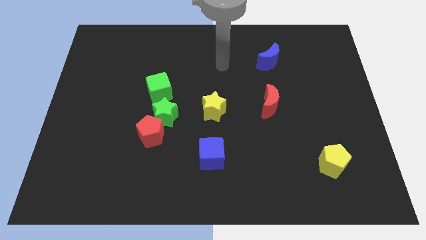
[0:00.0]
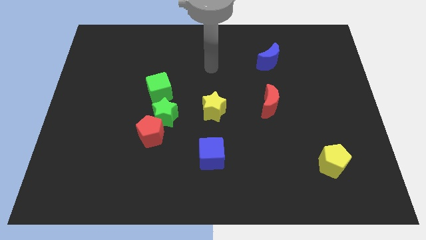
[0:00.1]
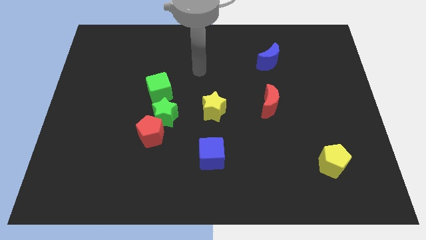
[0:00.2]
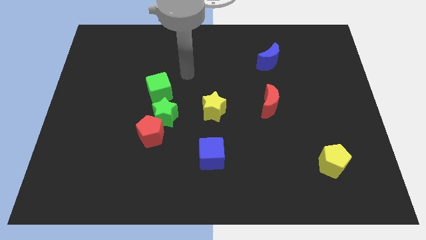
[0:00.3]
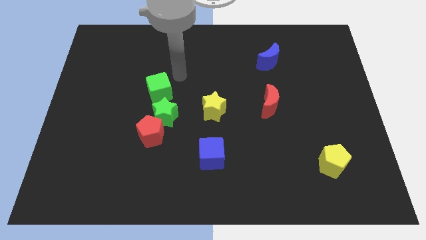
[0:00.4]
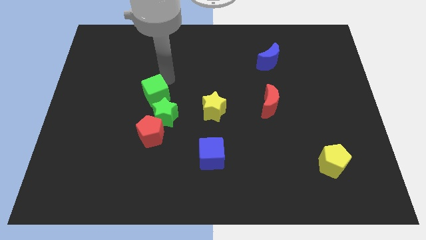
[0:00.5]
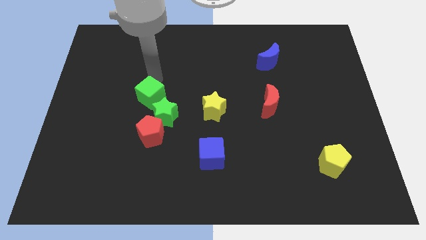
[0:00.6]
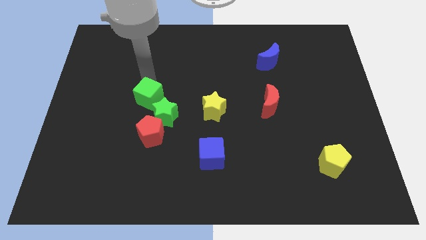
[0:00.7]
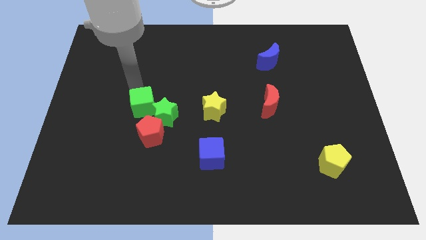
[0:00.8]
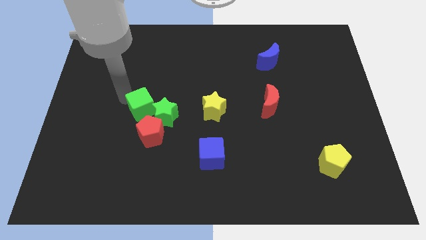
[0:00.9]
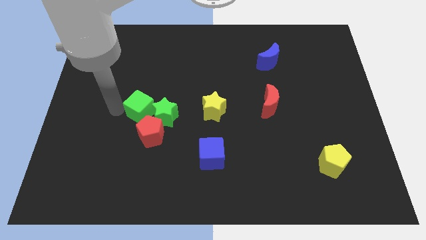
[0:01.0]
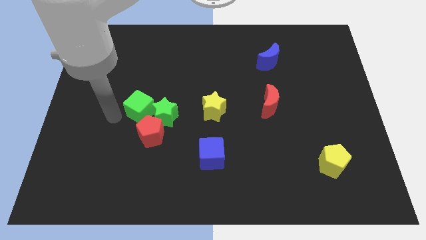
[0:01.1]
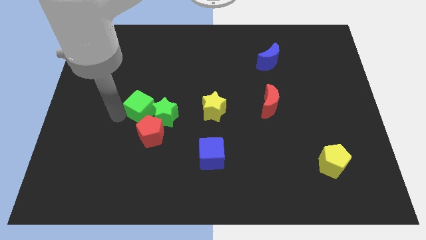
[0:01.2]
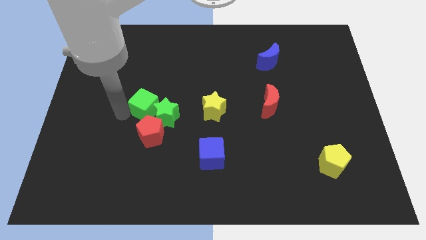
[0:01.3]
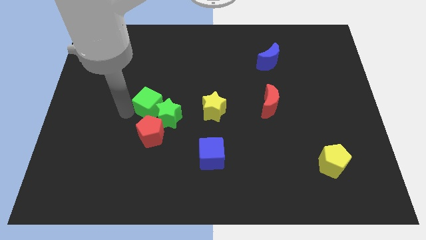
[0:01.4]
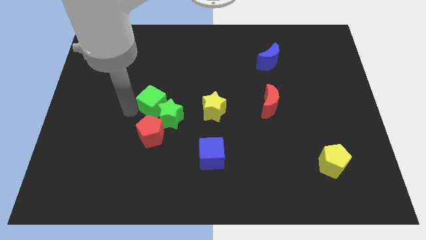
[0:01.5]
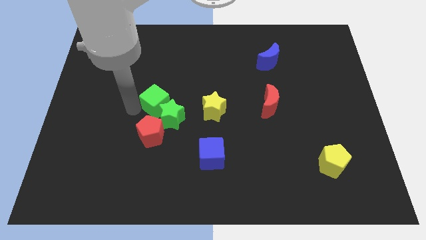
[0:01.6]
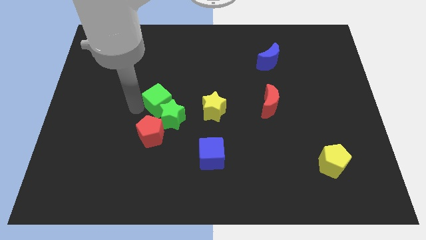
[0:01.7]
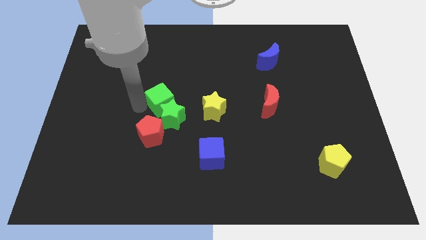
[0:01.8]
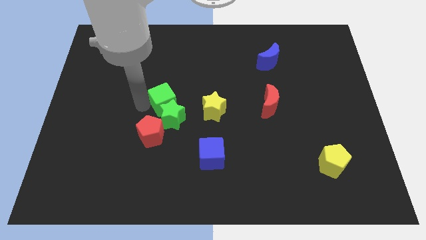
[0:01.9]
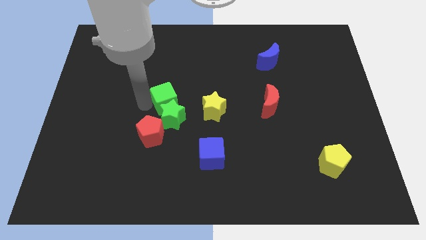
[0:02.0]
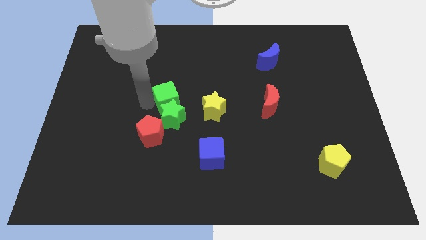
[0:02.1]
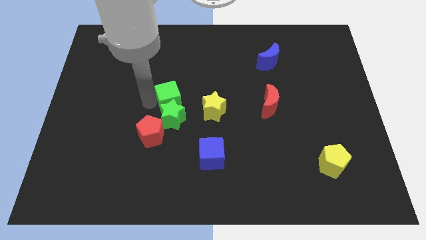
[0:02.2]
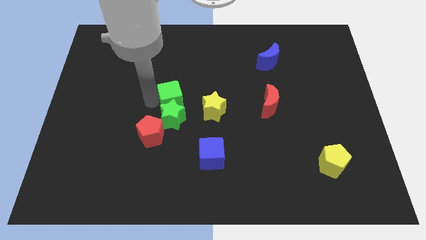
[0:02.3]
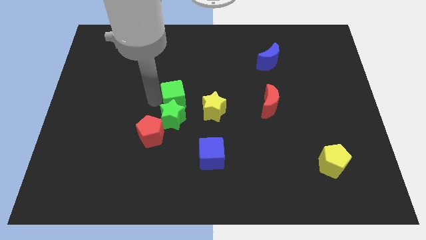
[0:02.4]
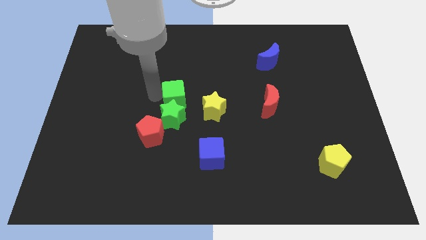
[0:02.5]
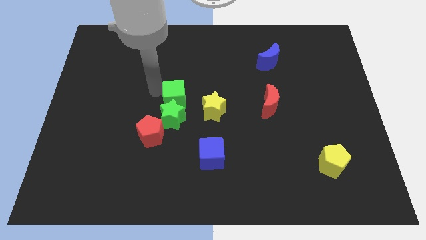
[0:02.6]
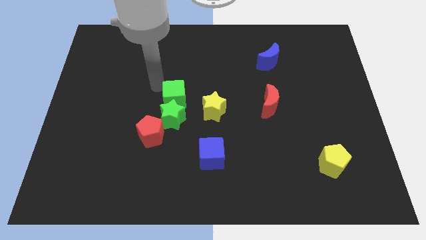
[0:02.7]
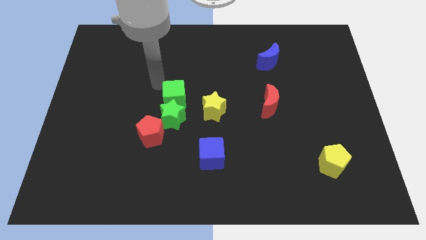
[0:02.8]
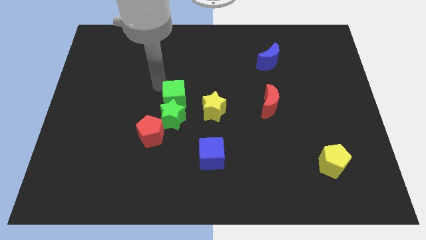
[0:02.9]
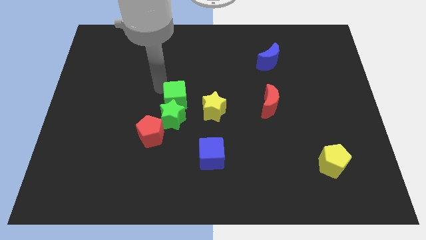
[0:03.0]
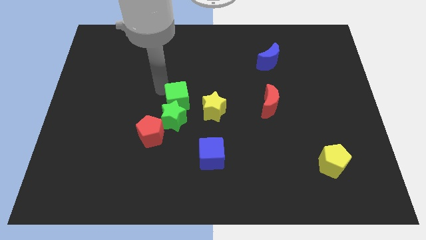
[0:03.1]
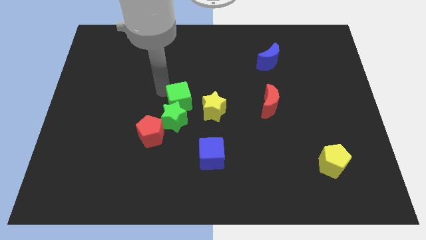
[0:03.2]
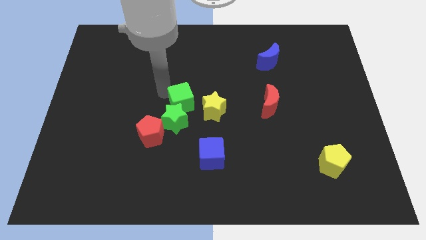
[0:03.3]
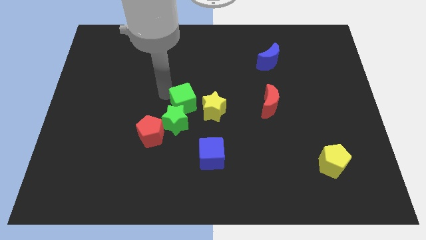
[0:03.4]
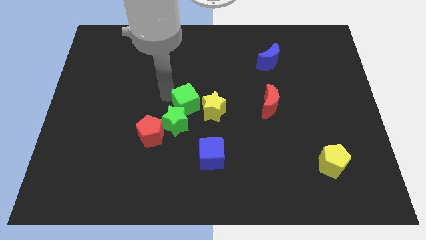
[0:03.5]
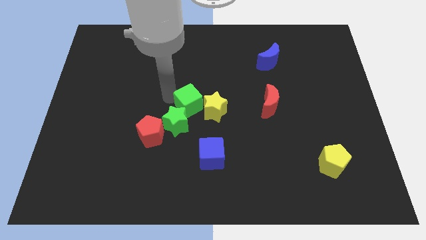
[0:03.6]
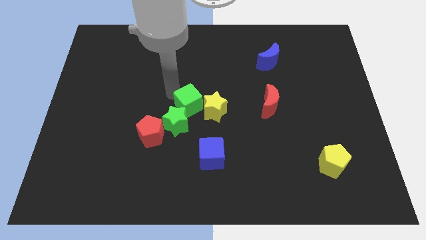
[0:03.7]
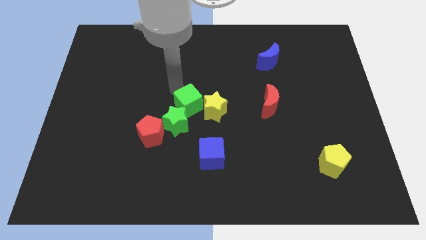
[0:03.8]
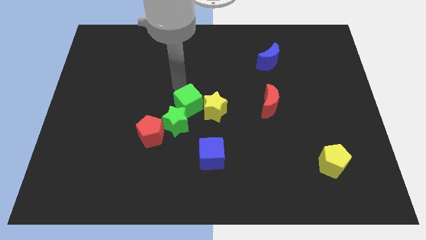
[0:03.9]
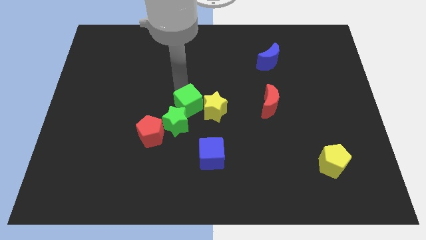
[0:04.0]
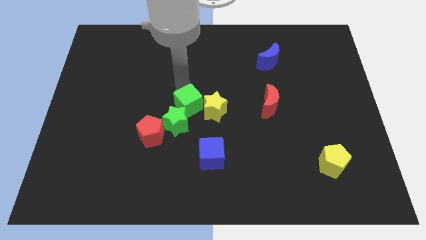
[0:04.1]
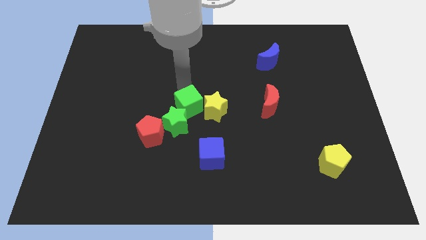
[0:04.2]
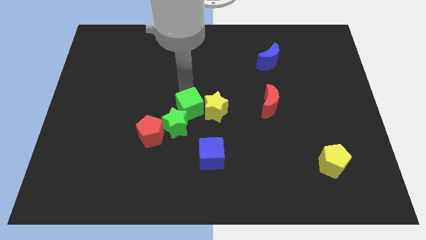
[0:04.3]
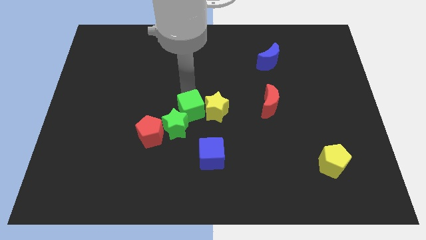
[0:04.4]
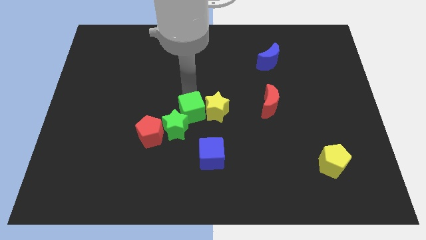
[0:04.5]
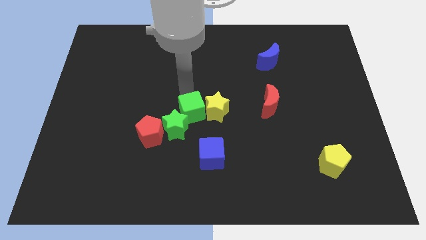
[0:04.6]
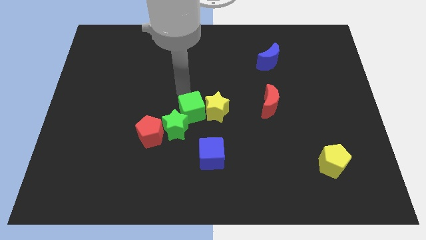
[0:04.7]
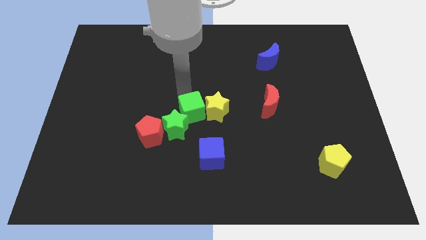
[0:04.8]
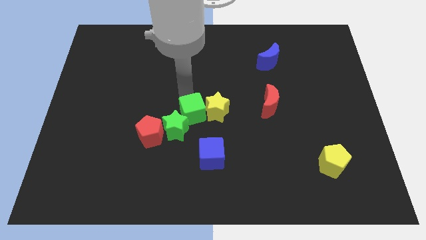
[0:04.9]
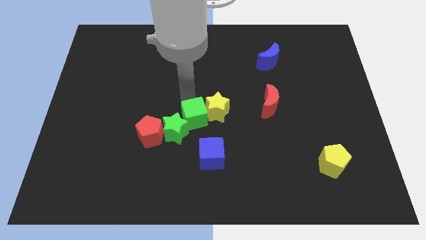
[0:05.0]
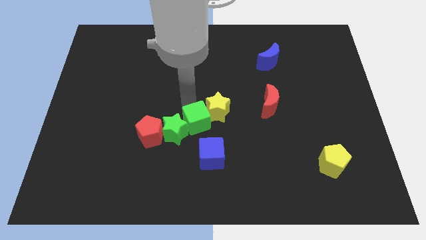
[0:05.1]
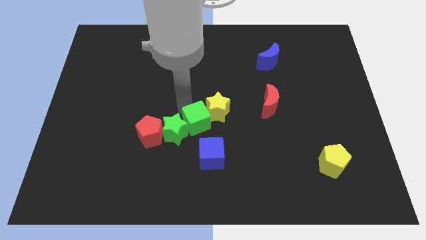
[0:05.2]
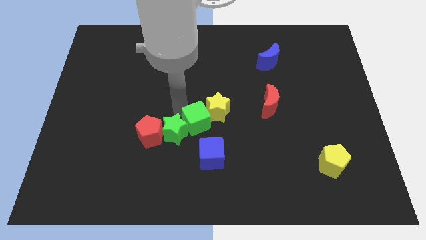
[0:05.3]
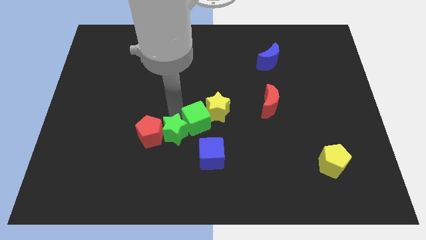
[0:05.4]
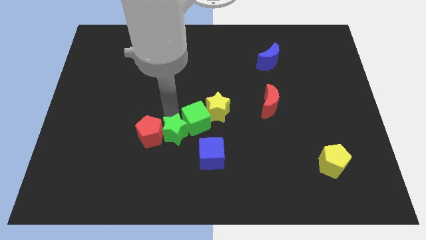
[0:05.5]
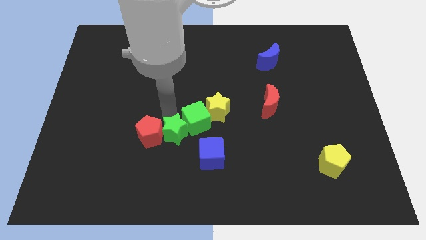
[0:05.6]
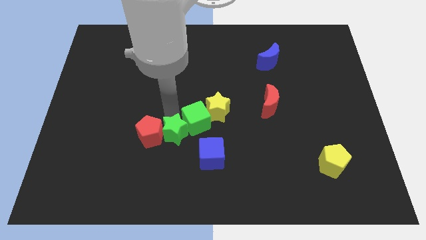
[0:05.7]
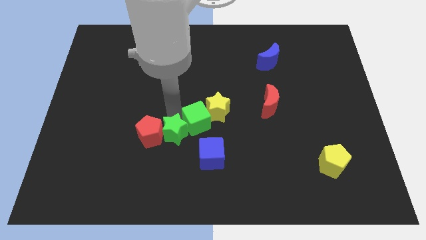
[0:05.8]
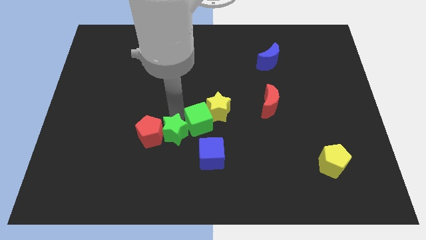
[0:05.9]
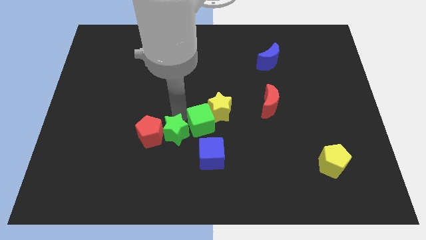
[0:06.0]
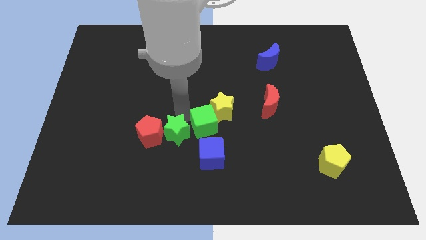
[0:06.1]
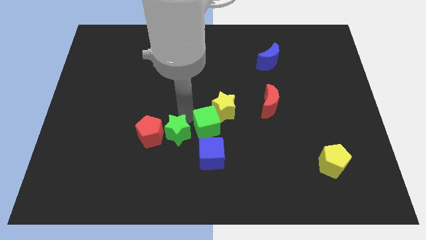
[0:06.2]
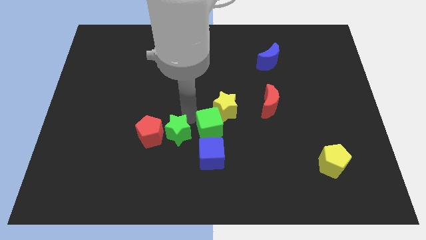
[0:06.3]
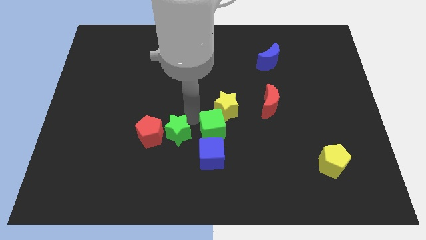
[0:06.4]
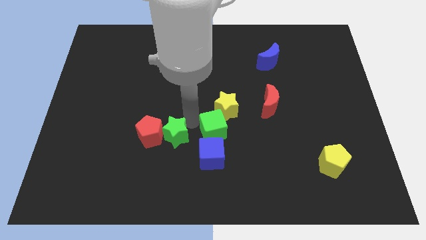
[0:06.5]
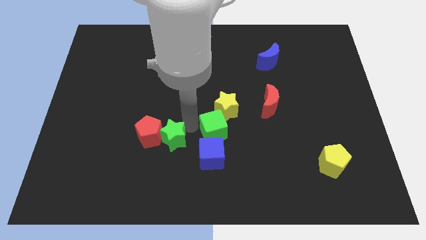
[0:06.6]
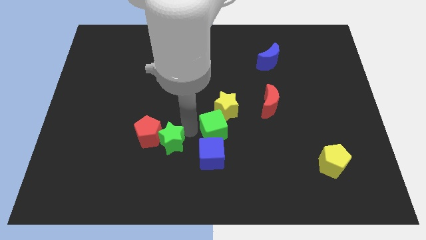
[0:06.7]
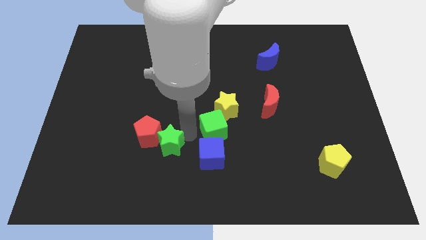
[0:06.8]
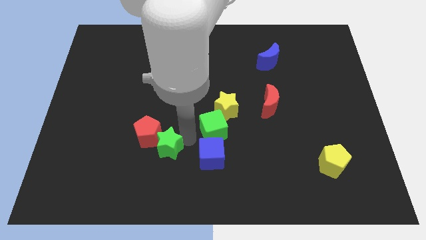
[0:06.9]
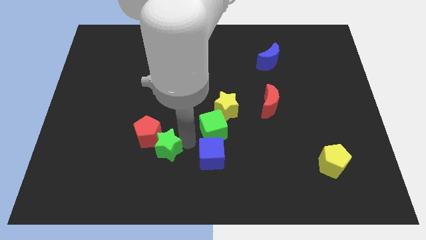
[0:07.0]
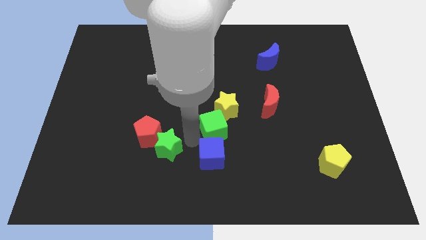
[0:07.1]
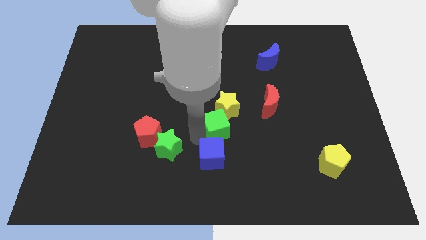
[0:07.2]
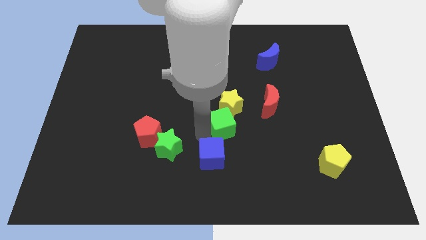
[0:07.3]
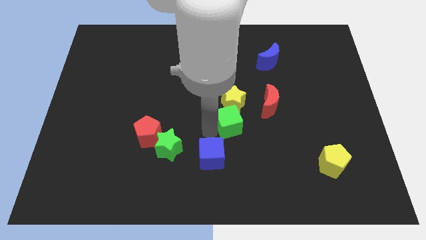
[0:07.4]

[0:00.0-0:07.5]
slide the green cube to the bottom left of the red moon

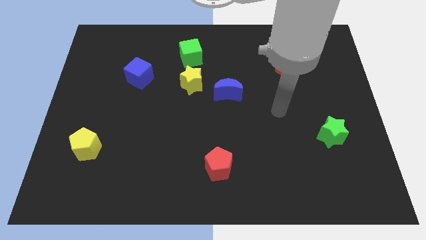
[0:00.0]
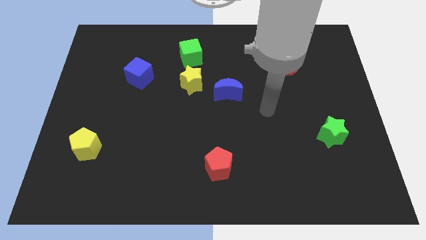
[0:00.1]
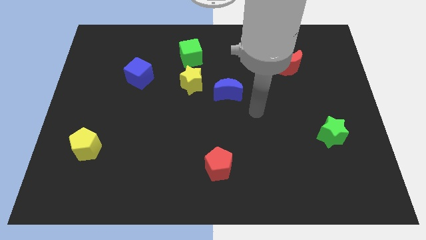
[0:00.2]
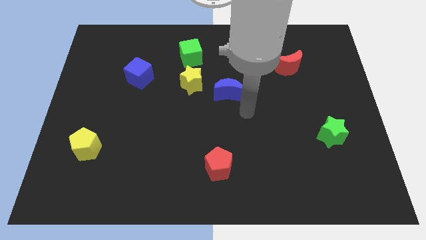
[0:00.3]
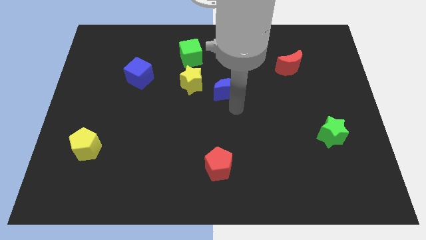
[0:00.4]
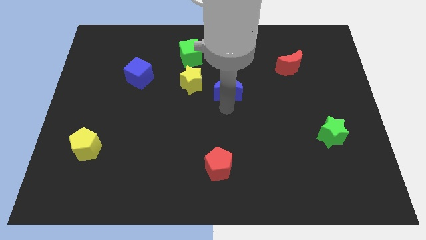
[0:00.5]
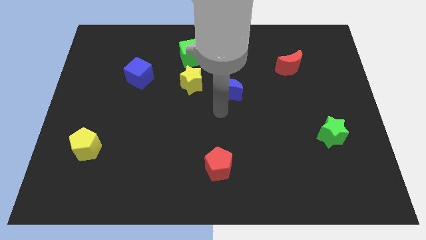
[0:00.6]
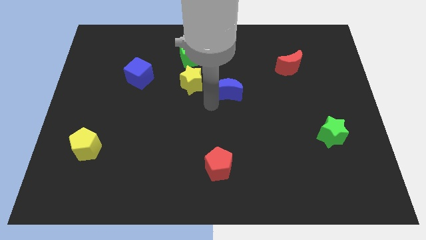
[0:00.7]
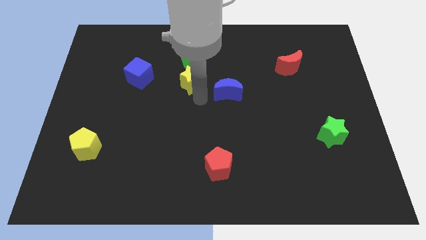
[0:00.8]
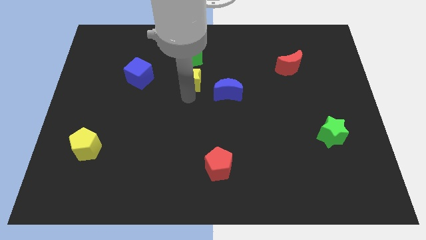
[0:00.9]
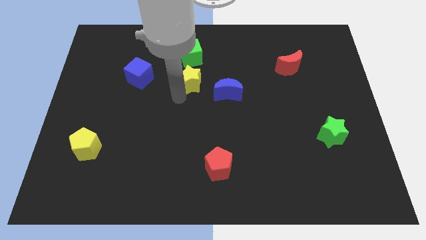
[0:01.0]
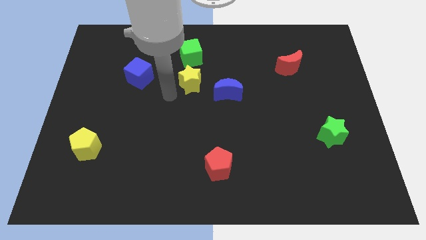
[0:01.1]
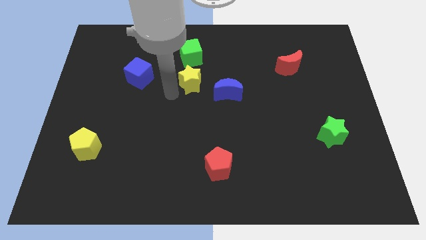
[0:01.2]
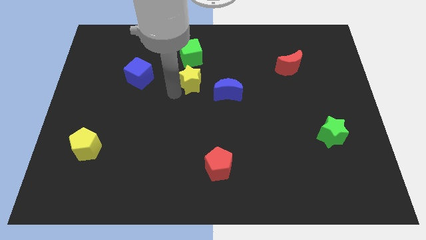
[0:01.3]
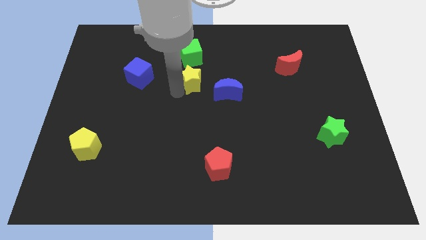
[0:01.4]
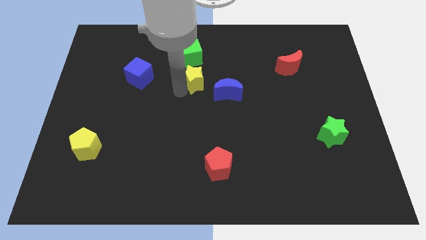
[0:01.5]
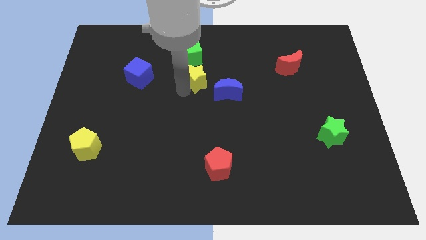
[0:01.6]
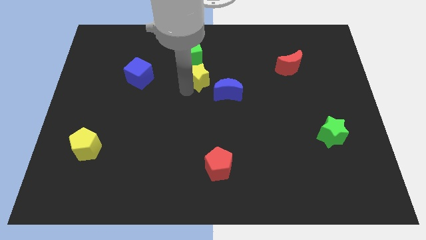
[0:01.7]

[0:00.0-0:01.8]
move the yellow star to the bottom right side of the green cube
